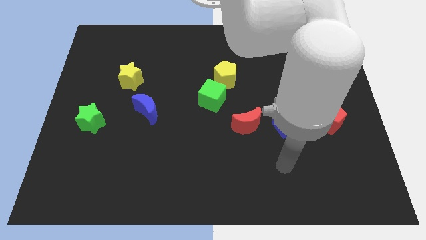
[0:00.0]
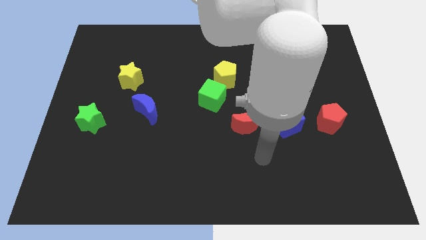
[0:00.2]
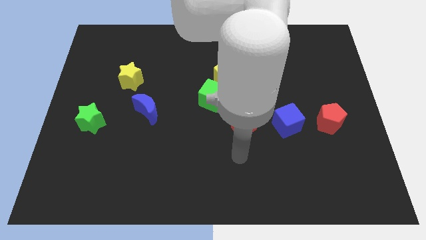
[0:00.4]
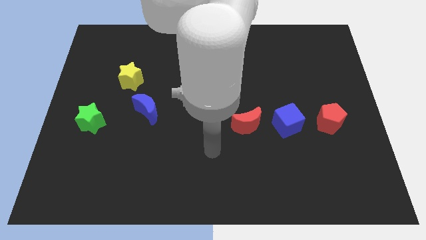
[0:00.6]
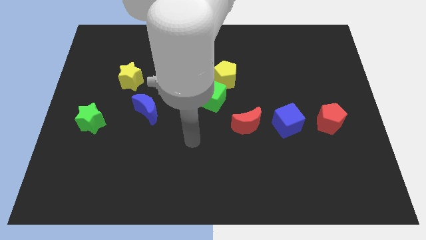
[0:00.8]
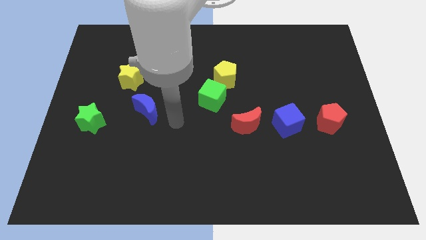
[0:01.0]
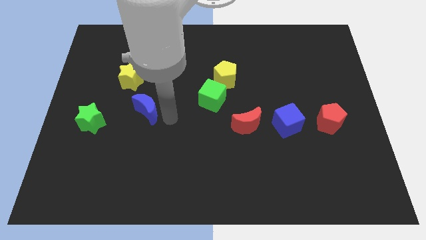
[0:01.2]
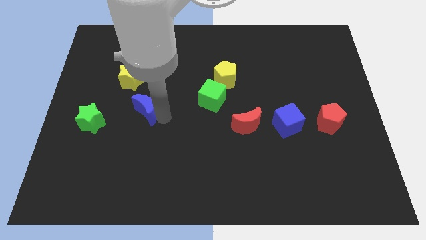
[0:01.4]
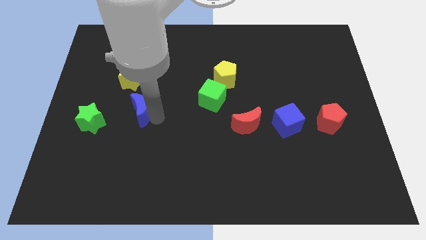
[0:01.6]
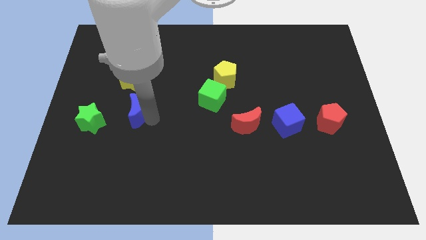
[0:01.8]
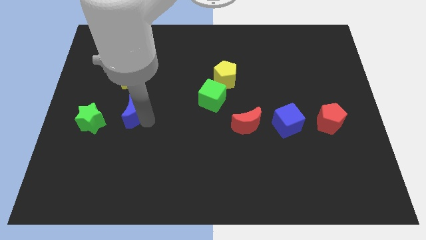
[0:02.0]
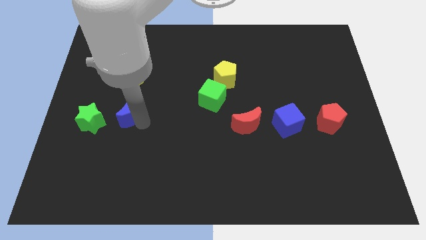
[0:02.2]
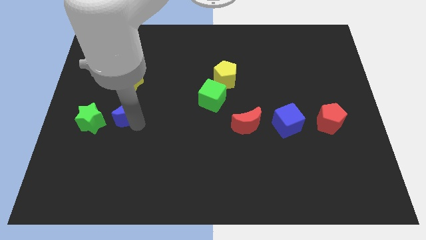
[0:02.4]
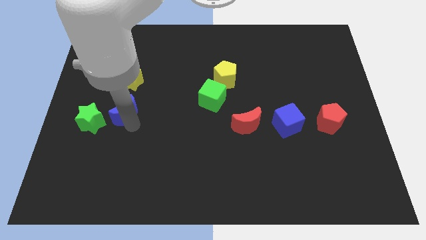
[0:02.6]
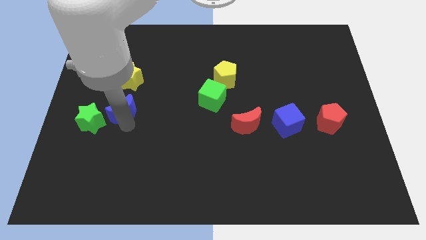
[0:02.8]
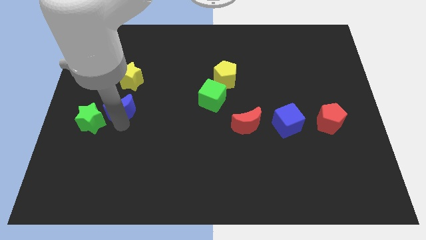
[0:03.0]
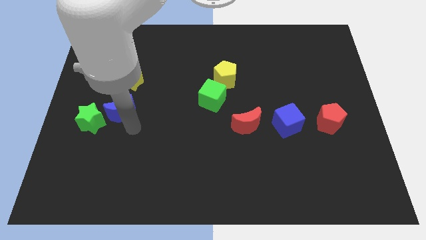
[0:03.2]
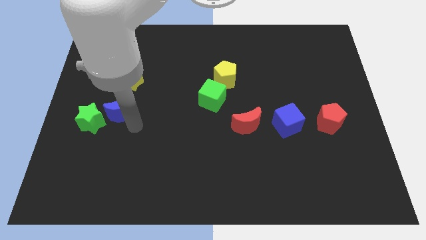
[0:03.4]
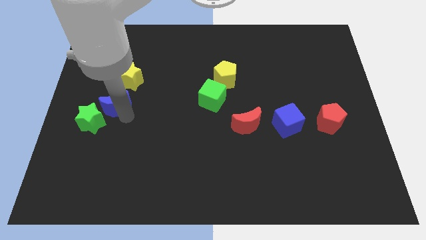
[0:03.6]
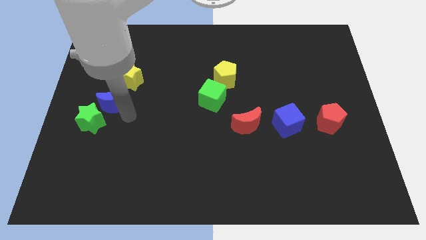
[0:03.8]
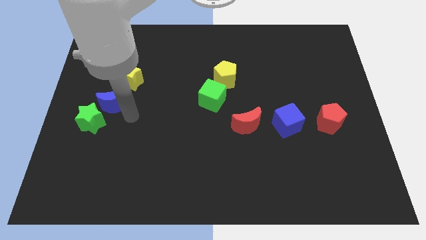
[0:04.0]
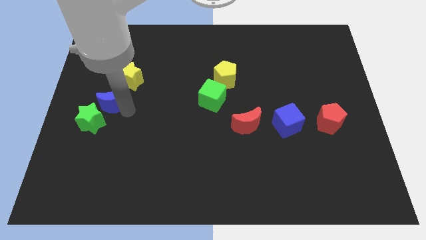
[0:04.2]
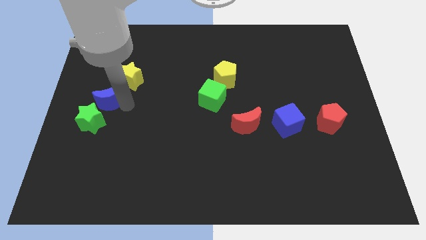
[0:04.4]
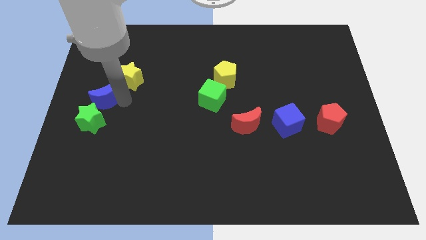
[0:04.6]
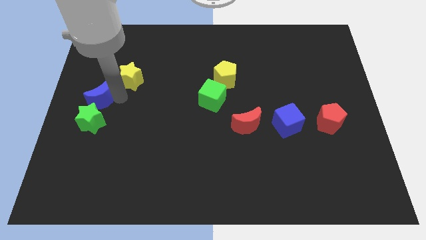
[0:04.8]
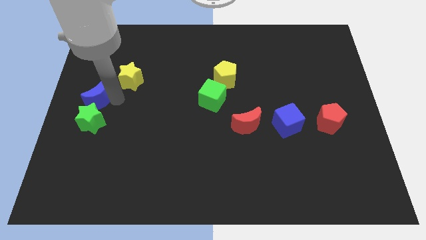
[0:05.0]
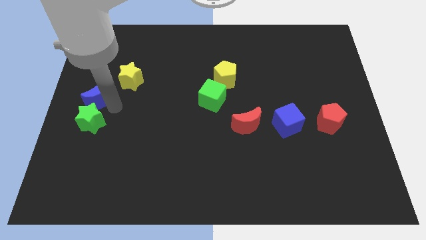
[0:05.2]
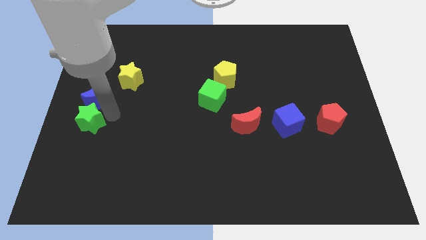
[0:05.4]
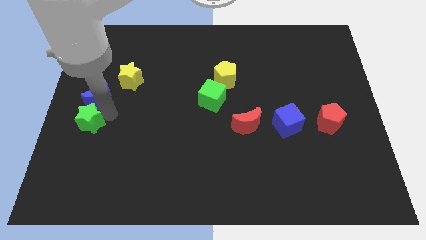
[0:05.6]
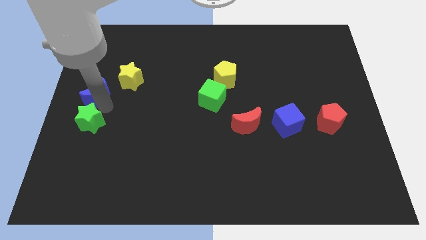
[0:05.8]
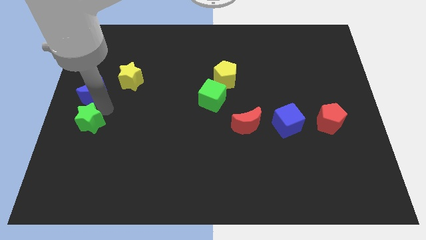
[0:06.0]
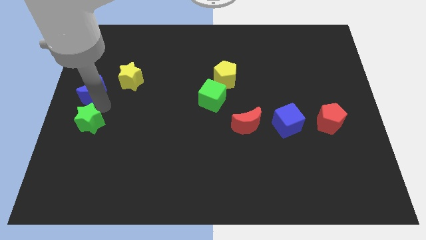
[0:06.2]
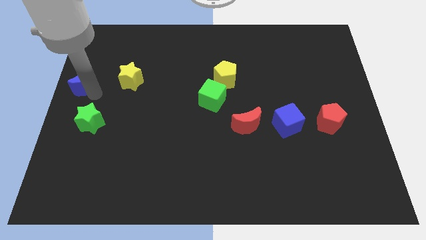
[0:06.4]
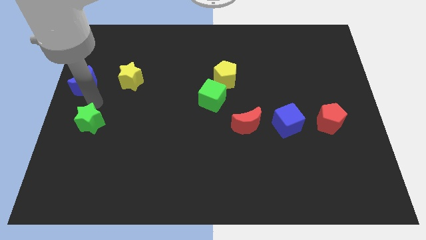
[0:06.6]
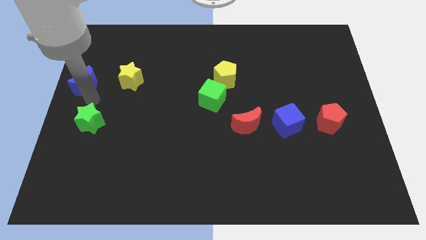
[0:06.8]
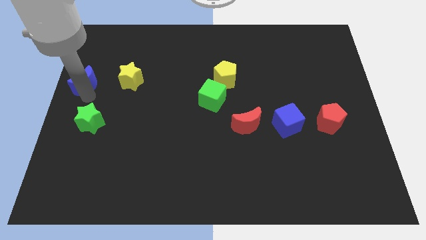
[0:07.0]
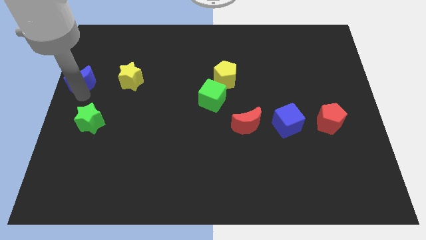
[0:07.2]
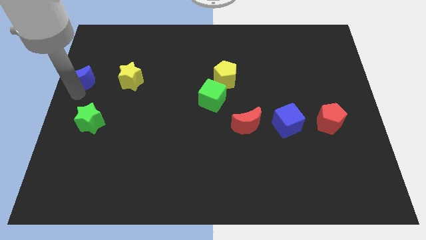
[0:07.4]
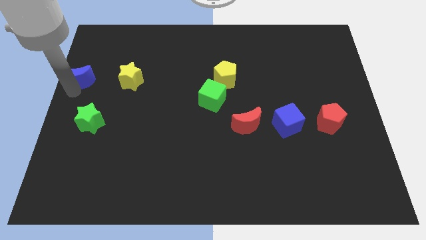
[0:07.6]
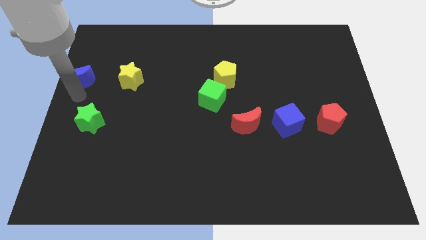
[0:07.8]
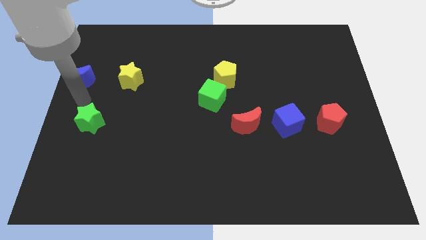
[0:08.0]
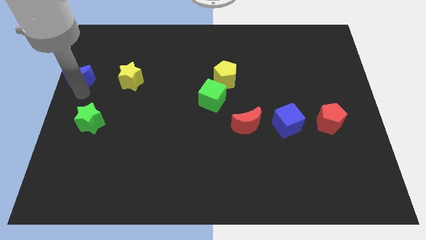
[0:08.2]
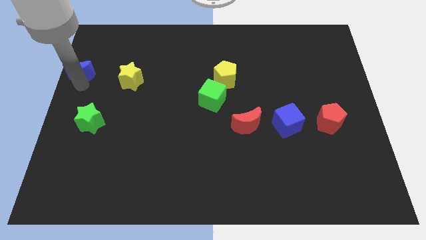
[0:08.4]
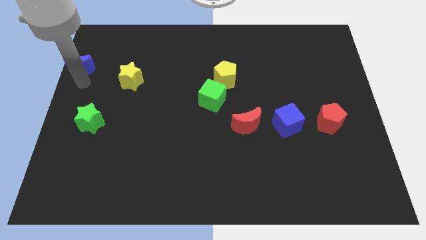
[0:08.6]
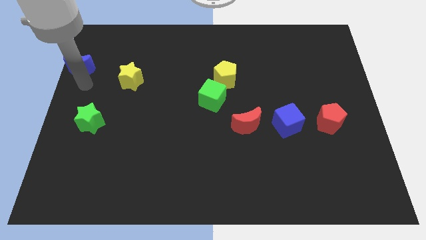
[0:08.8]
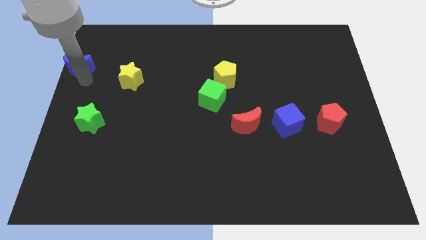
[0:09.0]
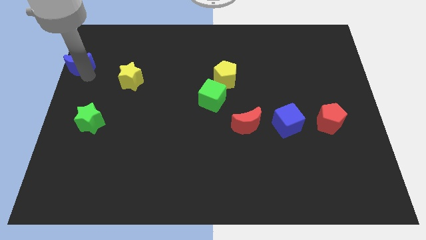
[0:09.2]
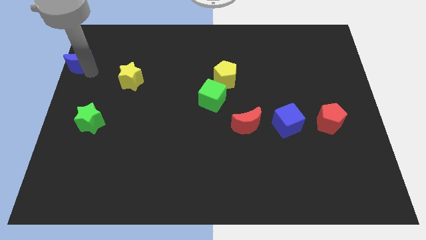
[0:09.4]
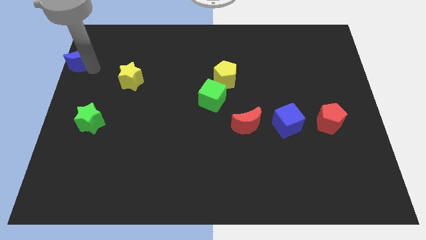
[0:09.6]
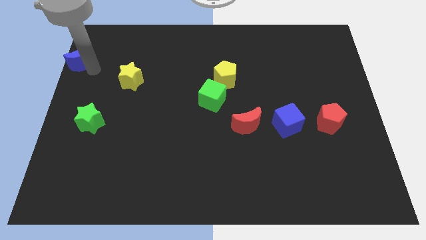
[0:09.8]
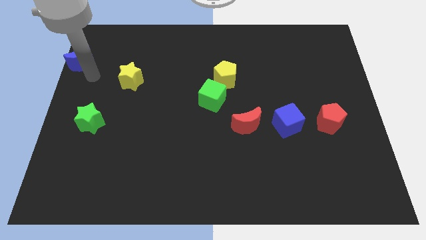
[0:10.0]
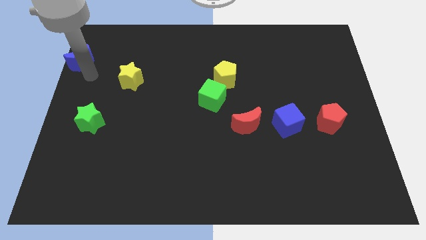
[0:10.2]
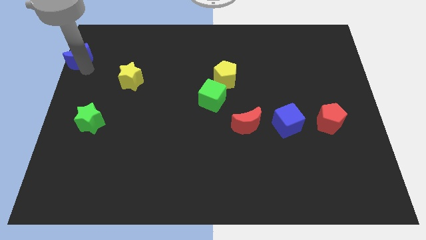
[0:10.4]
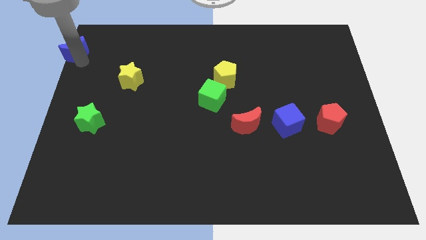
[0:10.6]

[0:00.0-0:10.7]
move the blue moon to the top left
